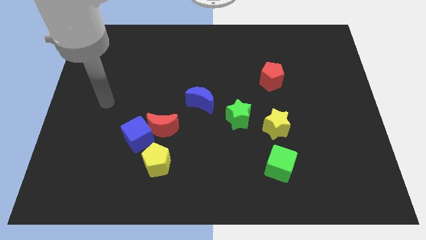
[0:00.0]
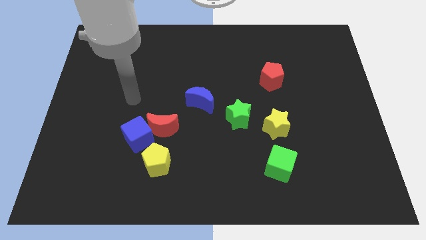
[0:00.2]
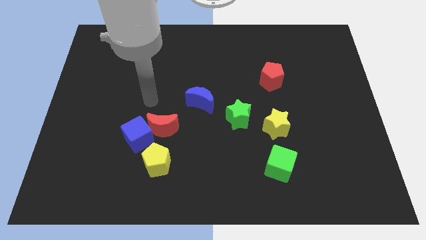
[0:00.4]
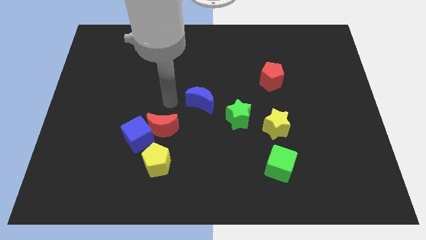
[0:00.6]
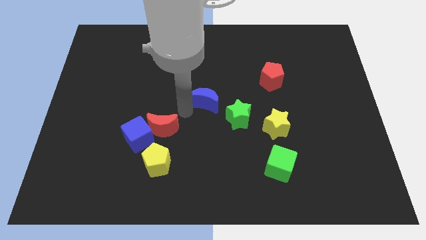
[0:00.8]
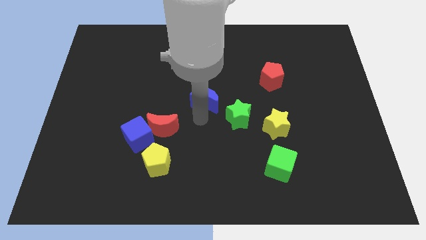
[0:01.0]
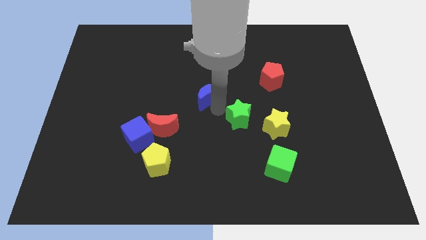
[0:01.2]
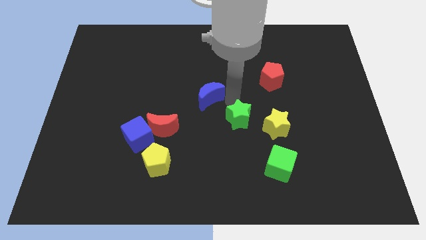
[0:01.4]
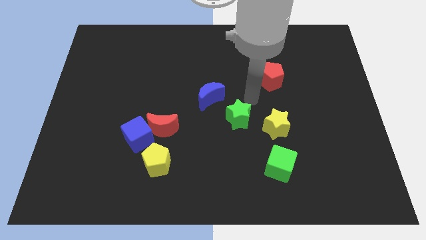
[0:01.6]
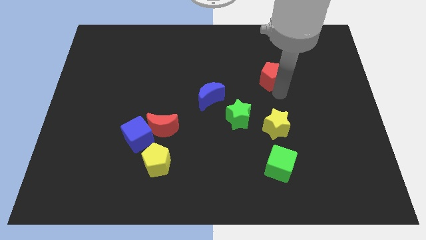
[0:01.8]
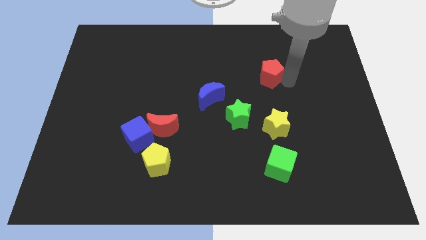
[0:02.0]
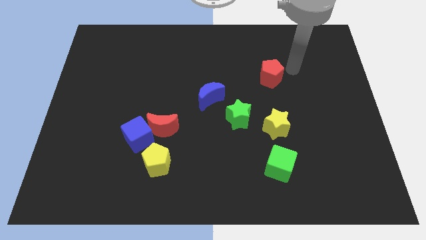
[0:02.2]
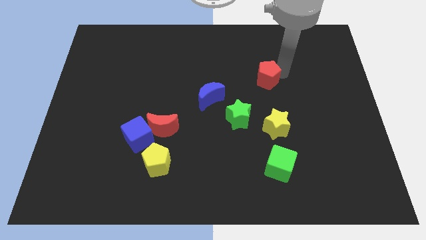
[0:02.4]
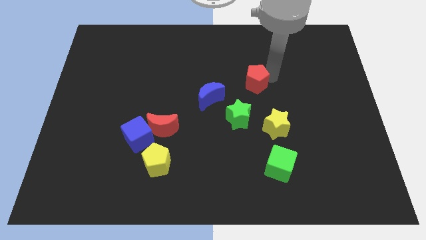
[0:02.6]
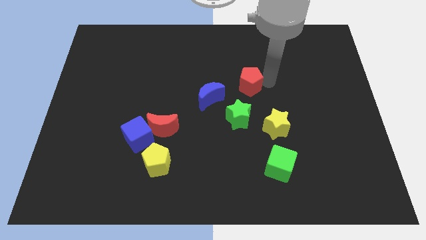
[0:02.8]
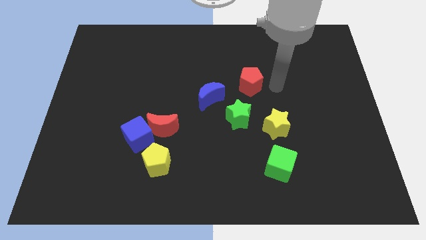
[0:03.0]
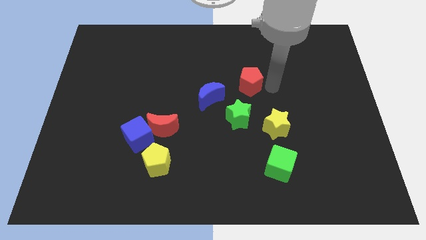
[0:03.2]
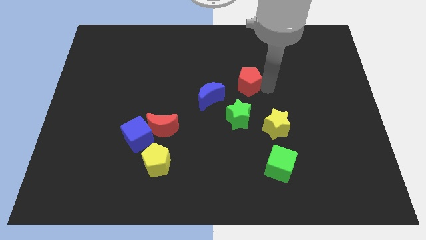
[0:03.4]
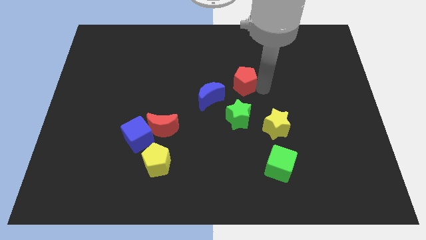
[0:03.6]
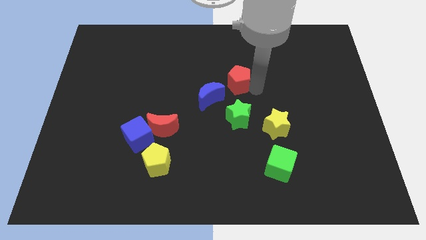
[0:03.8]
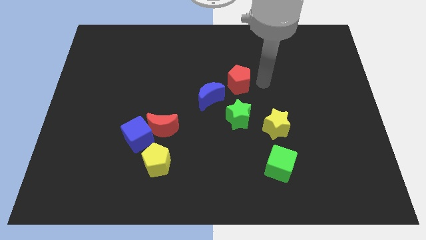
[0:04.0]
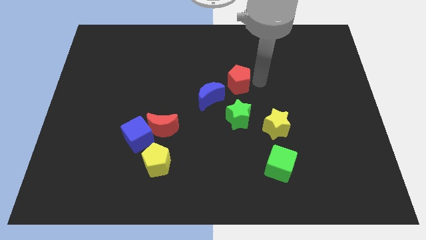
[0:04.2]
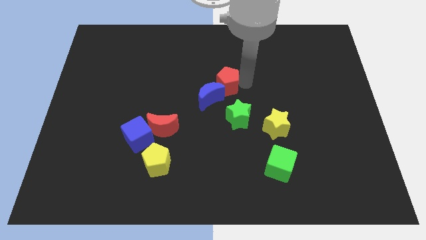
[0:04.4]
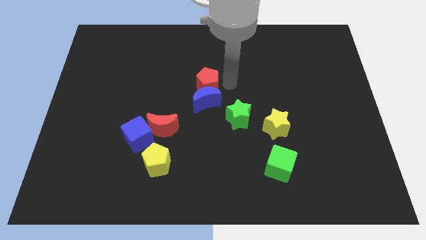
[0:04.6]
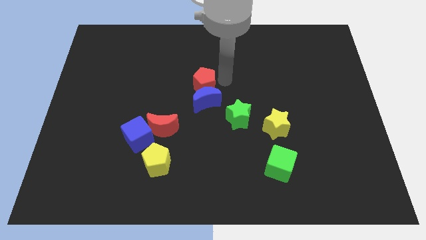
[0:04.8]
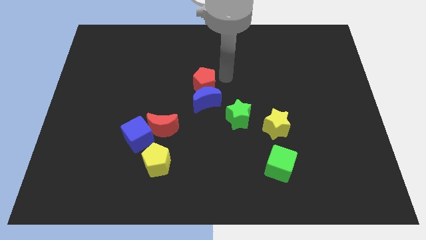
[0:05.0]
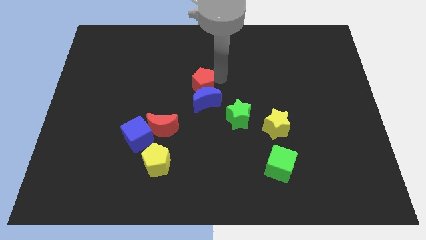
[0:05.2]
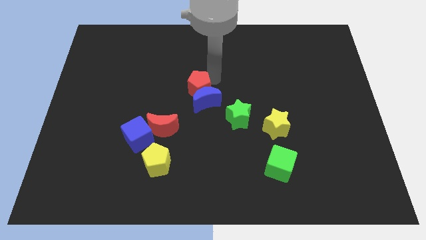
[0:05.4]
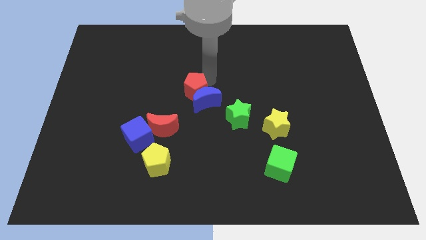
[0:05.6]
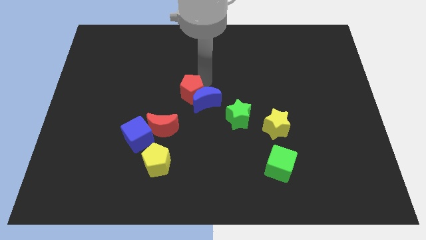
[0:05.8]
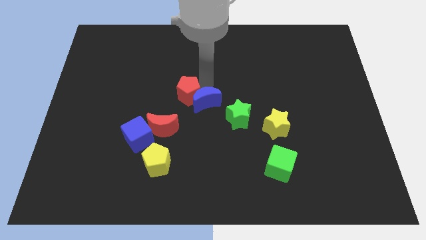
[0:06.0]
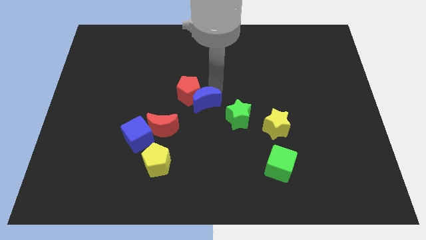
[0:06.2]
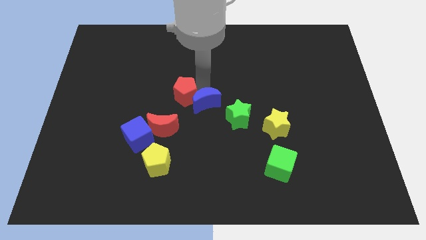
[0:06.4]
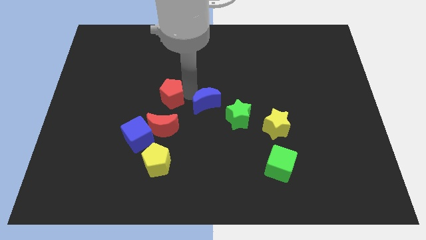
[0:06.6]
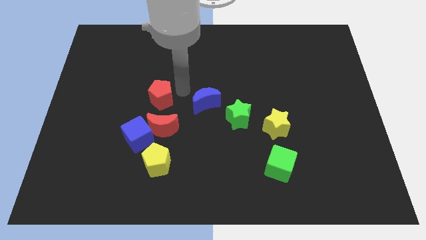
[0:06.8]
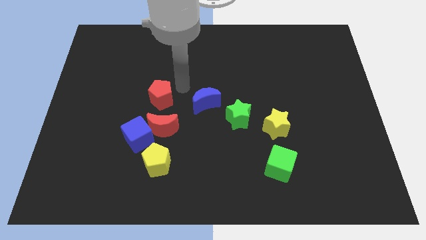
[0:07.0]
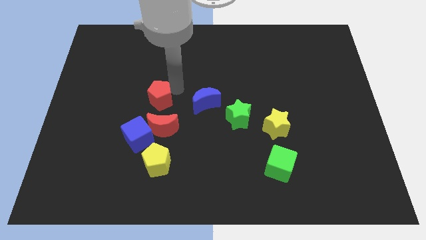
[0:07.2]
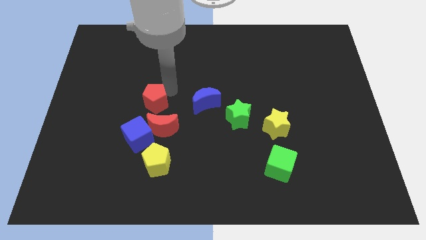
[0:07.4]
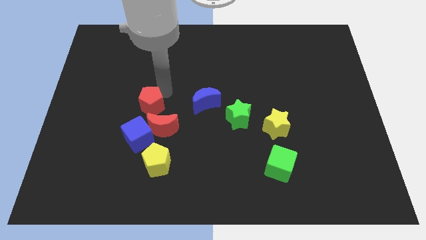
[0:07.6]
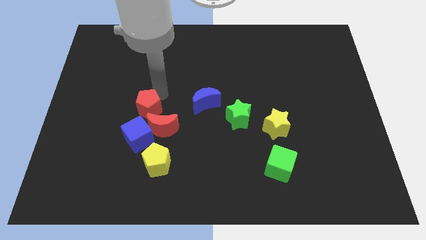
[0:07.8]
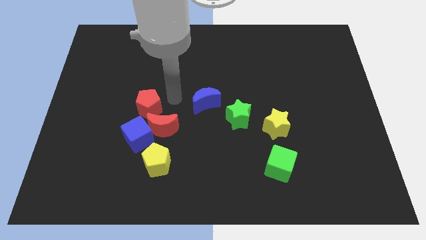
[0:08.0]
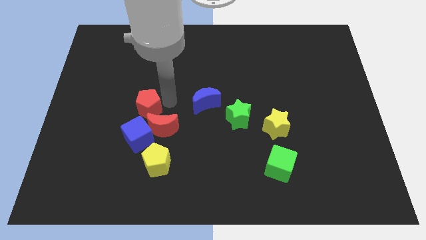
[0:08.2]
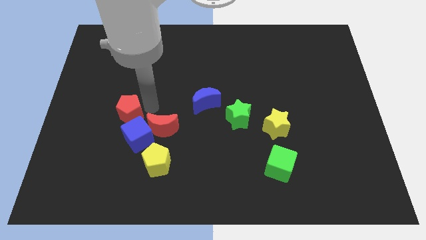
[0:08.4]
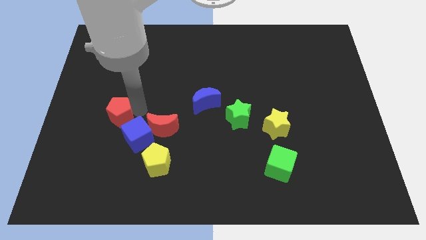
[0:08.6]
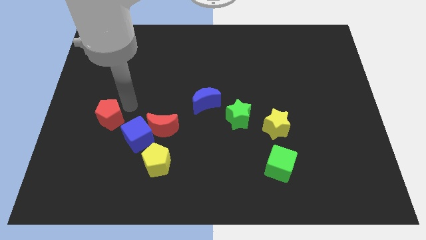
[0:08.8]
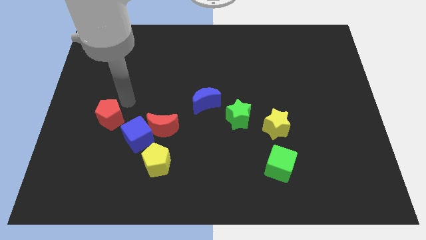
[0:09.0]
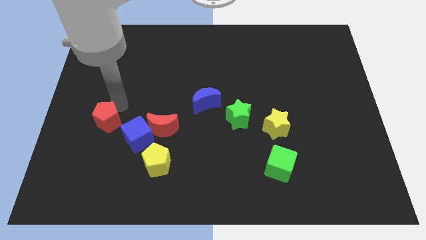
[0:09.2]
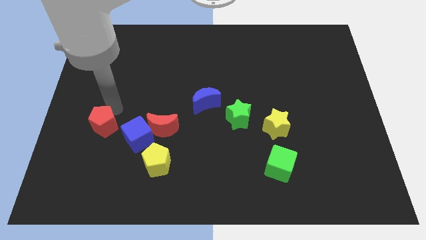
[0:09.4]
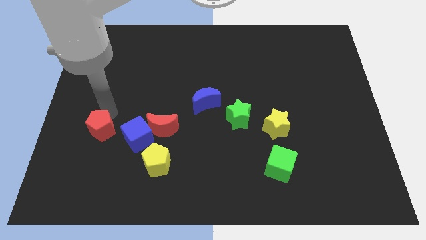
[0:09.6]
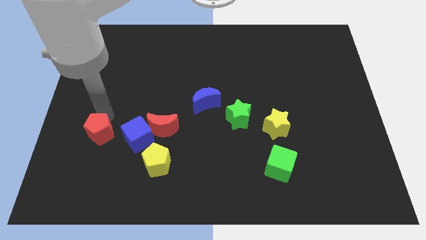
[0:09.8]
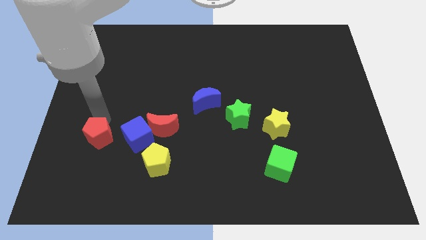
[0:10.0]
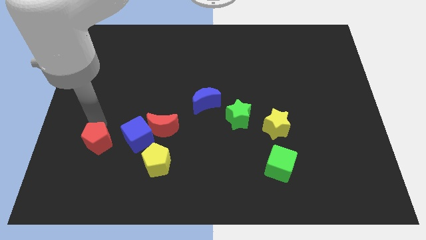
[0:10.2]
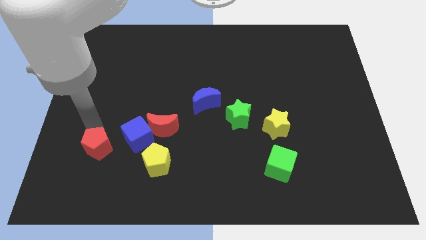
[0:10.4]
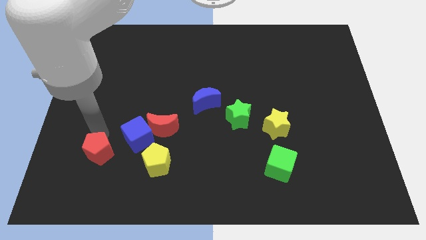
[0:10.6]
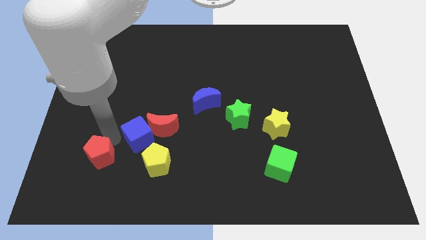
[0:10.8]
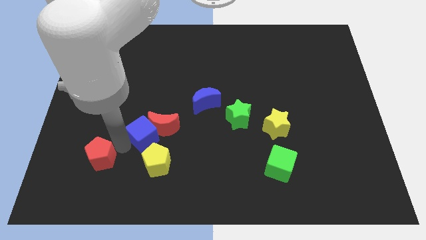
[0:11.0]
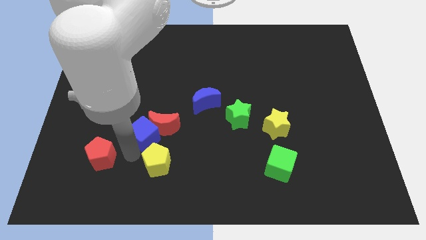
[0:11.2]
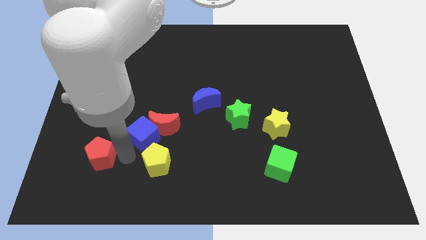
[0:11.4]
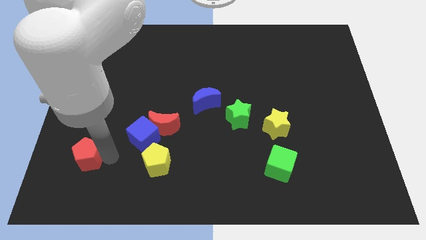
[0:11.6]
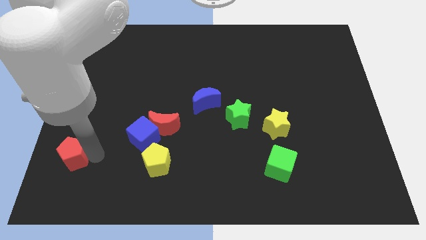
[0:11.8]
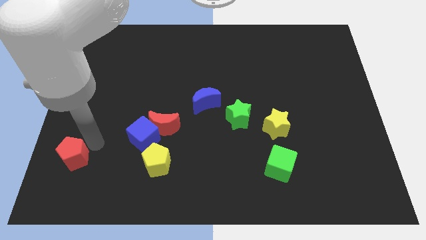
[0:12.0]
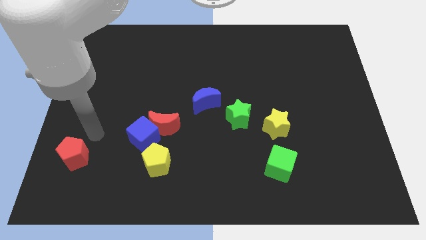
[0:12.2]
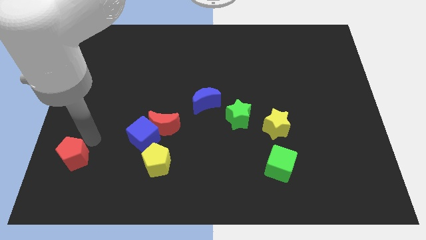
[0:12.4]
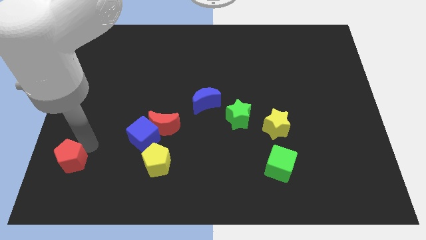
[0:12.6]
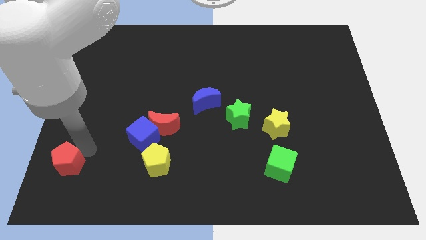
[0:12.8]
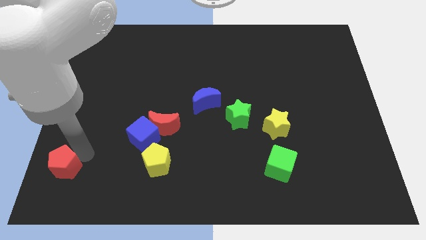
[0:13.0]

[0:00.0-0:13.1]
slide the red pentagon to the bottom left of the board
